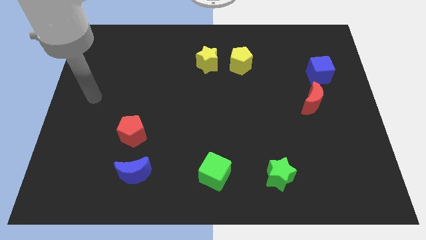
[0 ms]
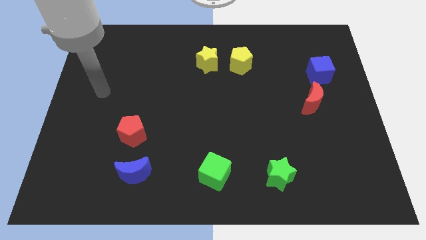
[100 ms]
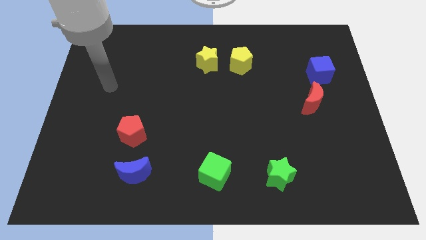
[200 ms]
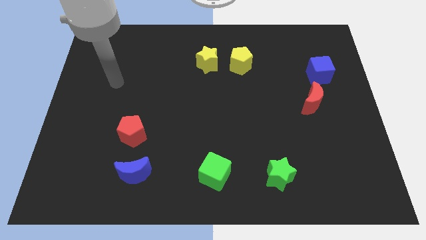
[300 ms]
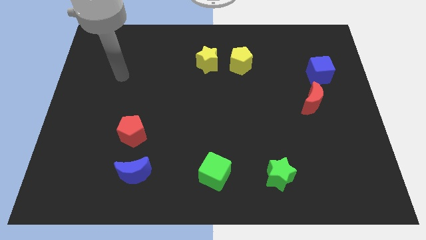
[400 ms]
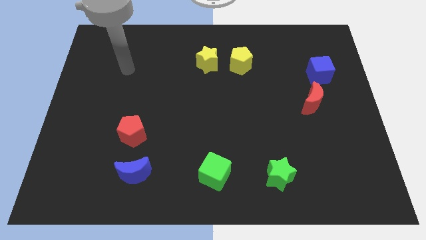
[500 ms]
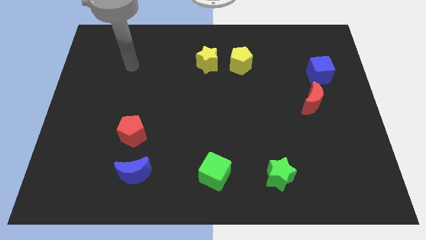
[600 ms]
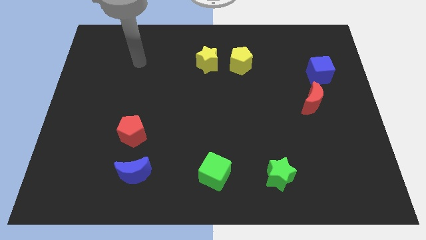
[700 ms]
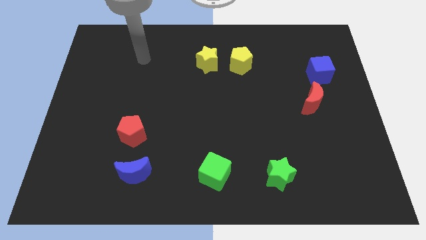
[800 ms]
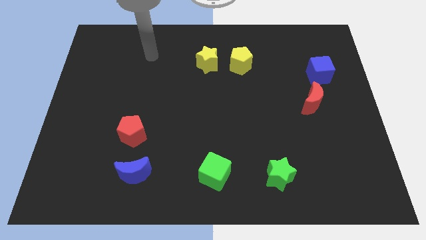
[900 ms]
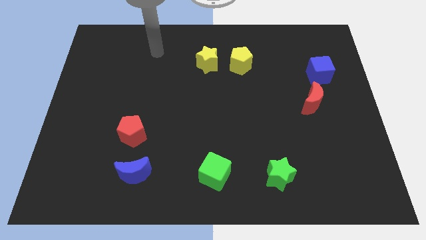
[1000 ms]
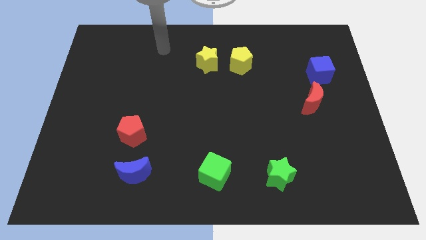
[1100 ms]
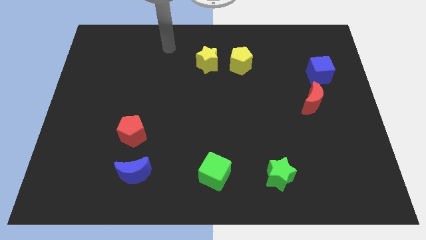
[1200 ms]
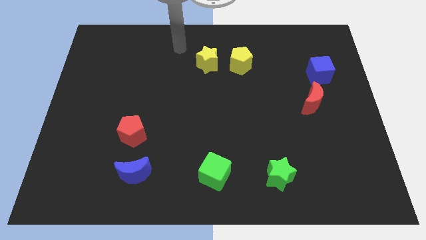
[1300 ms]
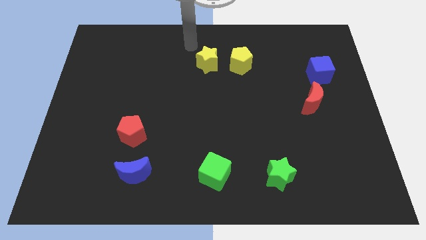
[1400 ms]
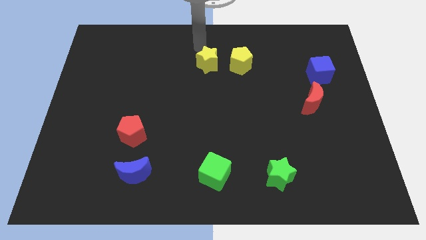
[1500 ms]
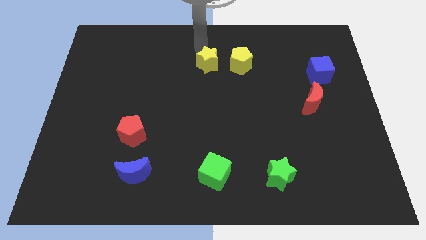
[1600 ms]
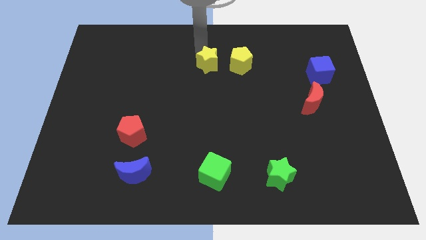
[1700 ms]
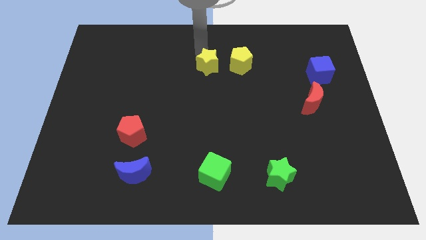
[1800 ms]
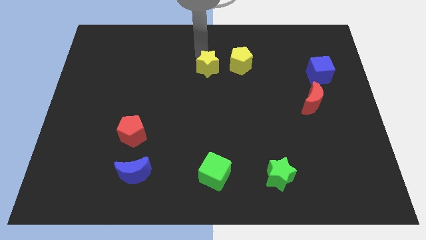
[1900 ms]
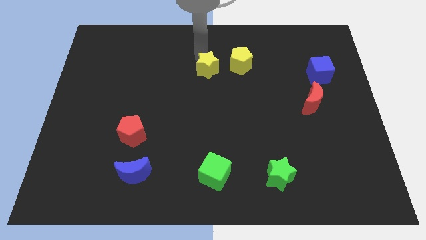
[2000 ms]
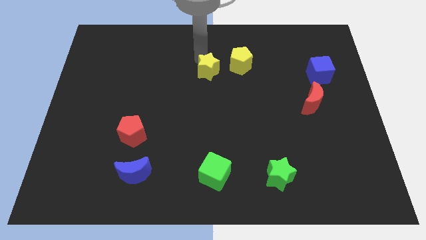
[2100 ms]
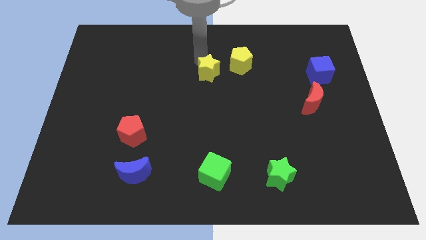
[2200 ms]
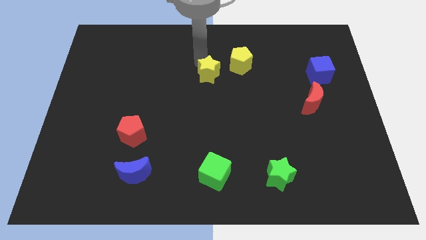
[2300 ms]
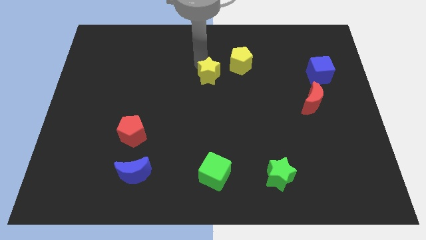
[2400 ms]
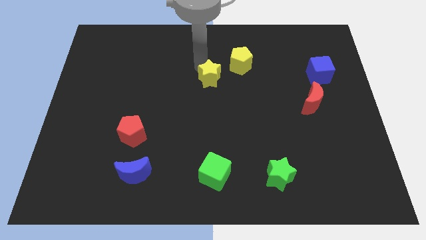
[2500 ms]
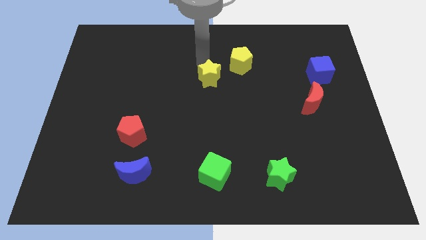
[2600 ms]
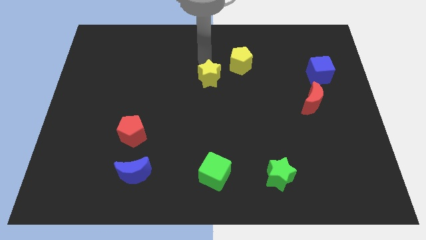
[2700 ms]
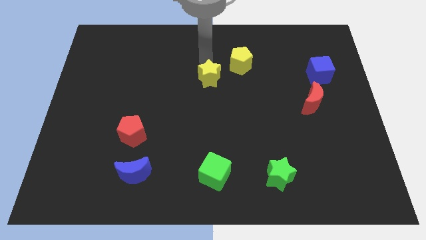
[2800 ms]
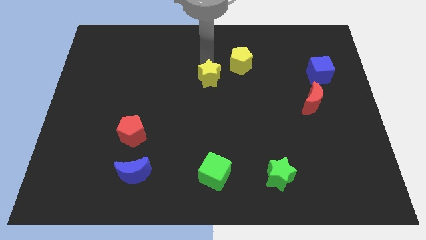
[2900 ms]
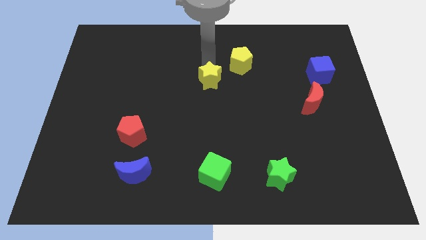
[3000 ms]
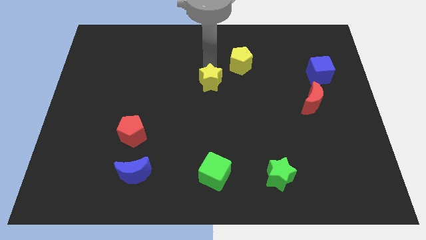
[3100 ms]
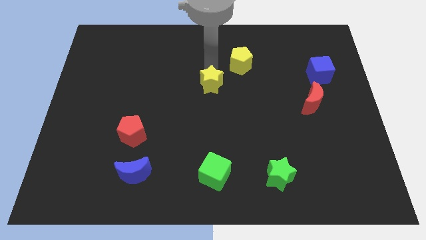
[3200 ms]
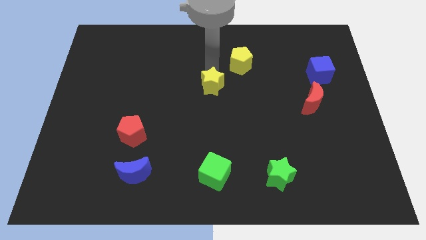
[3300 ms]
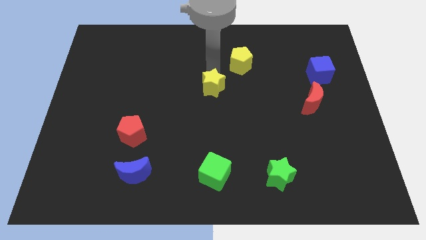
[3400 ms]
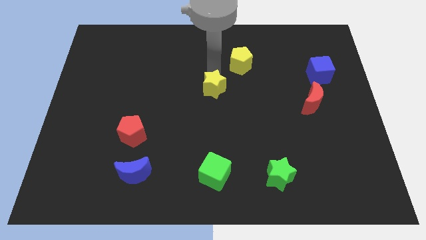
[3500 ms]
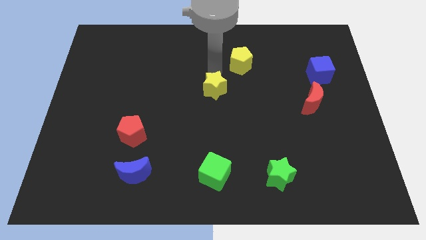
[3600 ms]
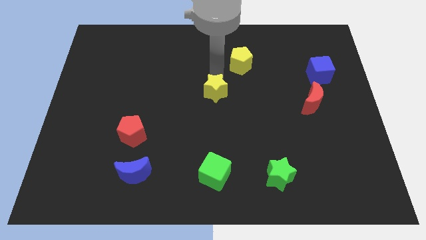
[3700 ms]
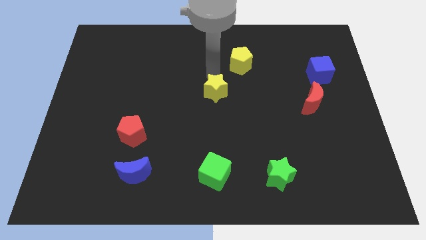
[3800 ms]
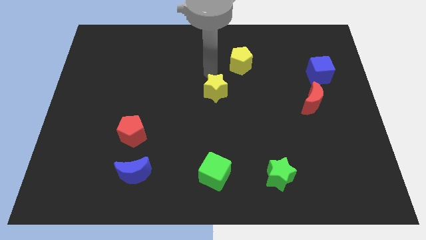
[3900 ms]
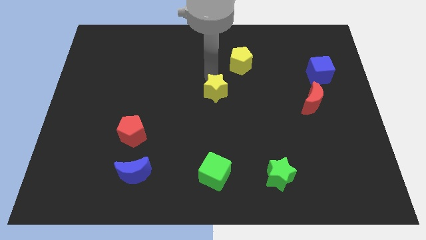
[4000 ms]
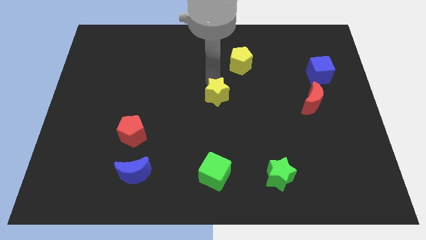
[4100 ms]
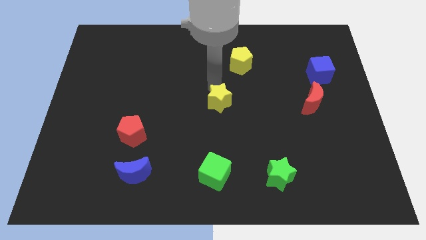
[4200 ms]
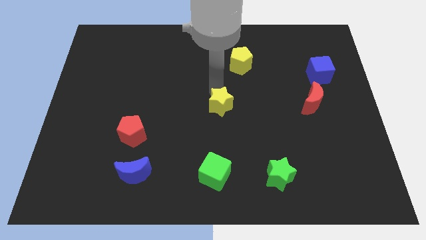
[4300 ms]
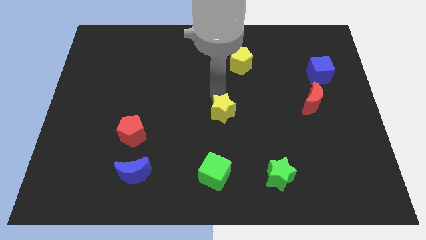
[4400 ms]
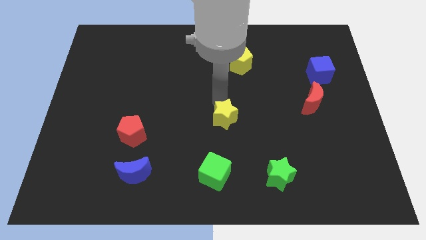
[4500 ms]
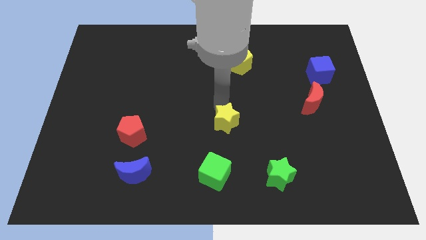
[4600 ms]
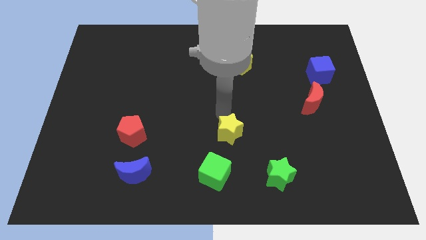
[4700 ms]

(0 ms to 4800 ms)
push the yellow star to the top right side of the green cube

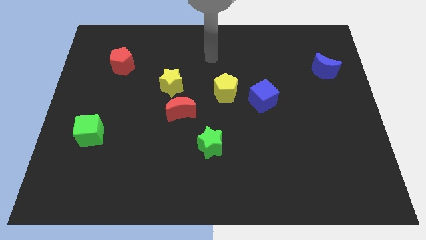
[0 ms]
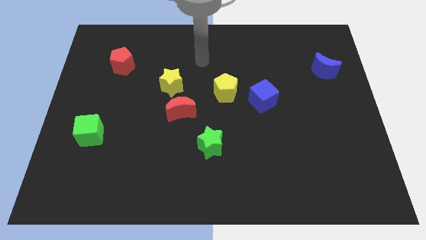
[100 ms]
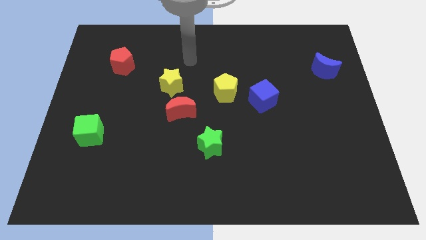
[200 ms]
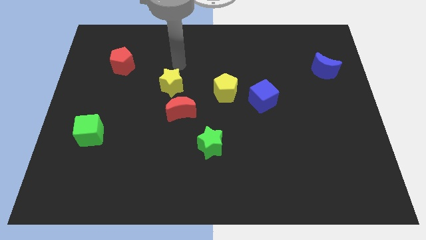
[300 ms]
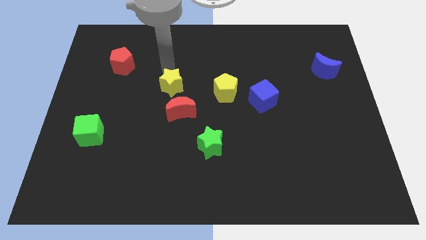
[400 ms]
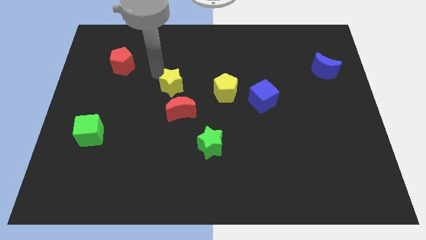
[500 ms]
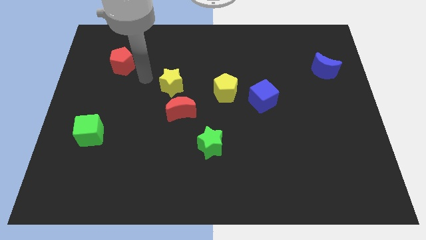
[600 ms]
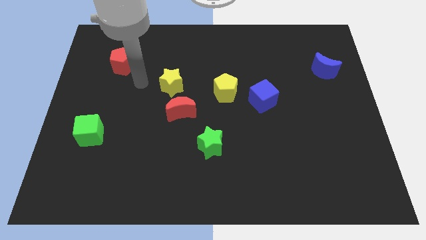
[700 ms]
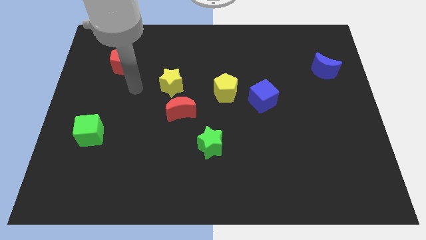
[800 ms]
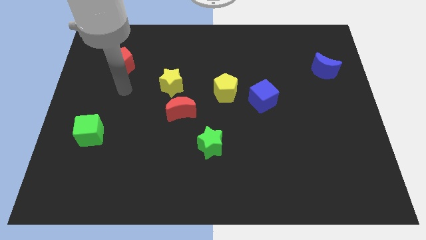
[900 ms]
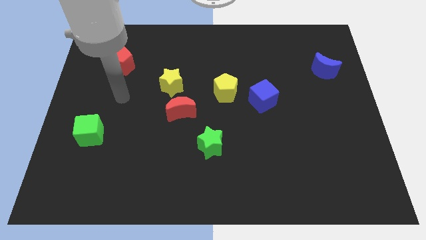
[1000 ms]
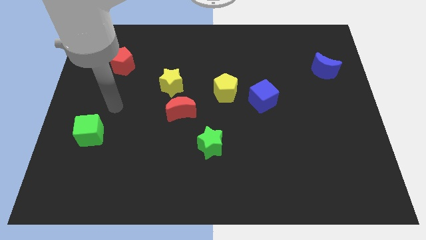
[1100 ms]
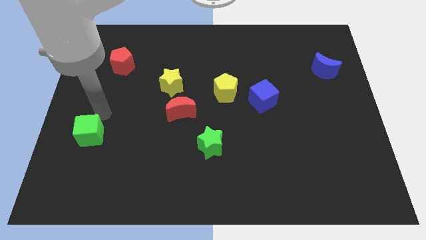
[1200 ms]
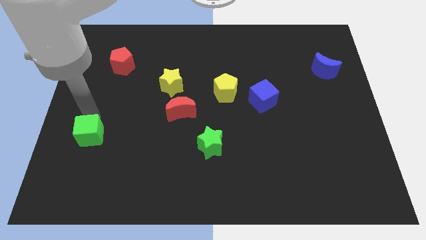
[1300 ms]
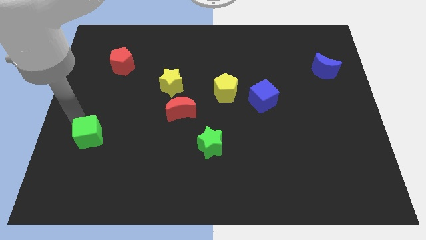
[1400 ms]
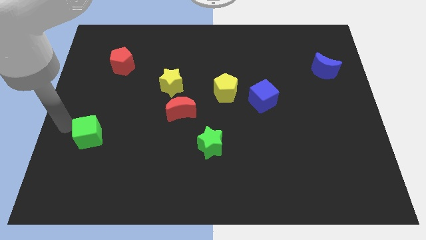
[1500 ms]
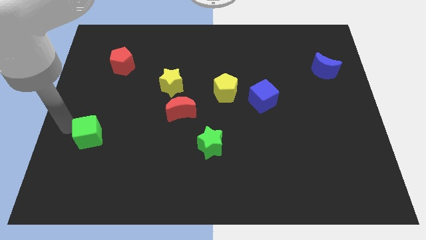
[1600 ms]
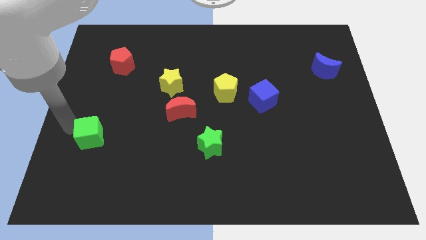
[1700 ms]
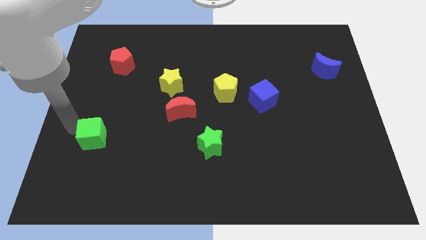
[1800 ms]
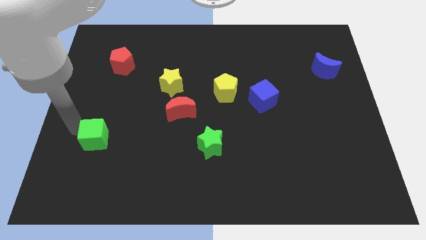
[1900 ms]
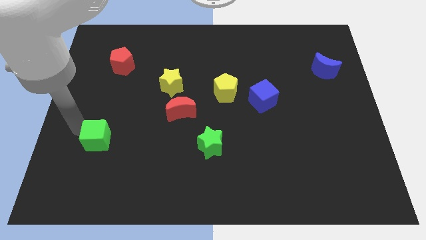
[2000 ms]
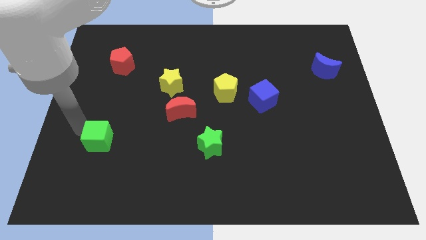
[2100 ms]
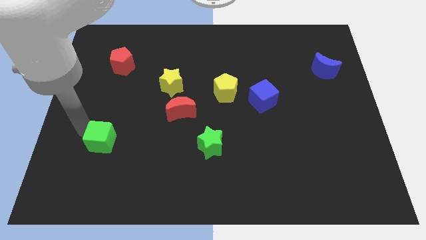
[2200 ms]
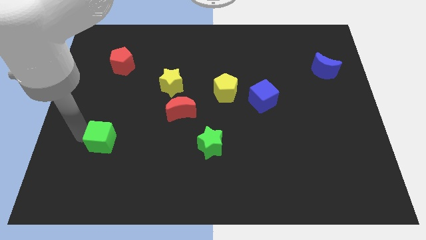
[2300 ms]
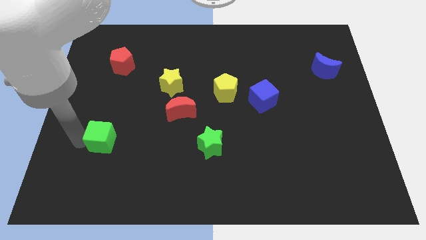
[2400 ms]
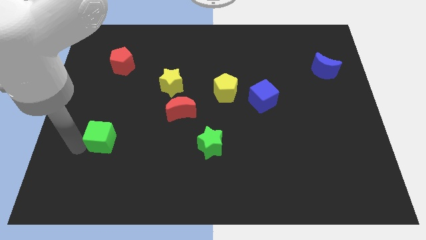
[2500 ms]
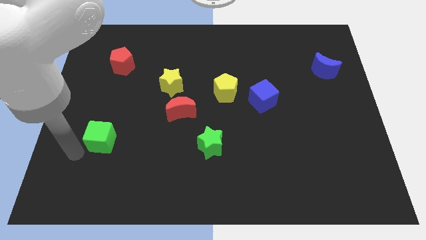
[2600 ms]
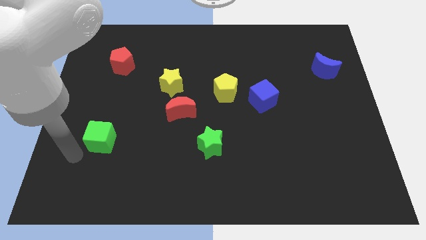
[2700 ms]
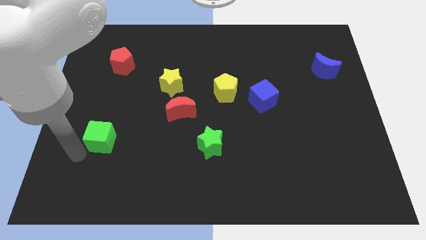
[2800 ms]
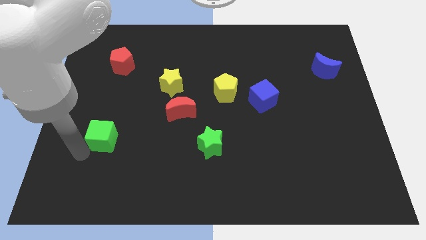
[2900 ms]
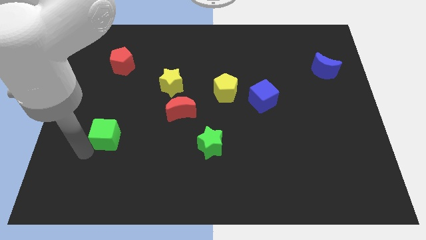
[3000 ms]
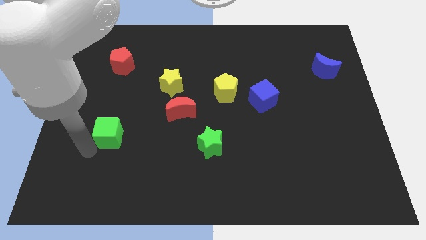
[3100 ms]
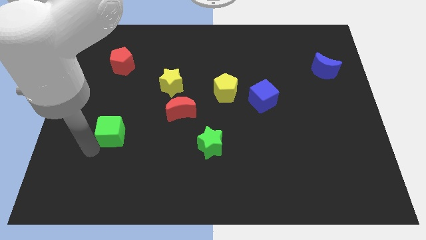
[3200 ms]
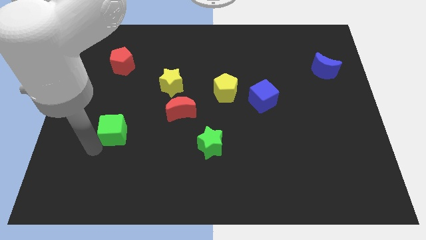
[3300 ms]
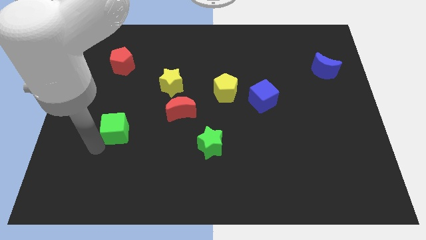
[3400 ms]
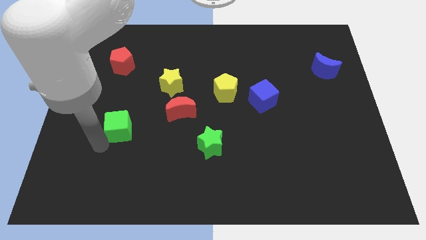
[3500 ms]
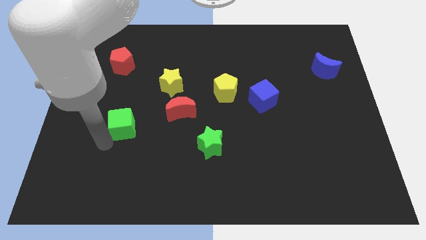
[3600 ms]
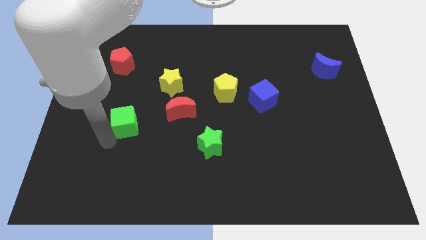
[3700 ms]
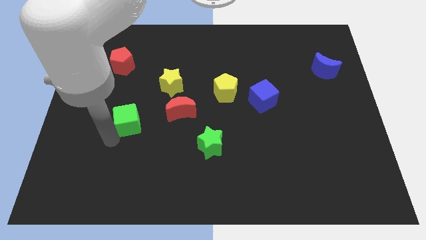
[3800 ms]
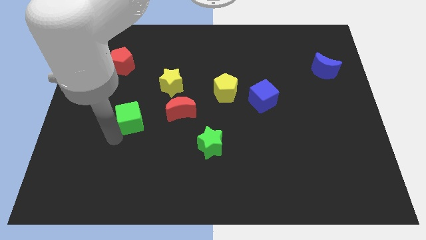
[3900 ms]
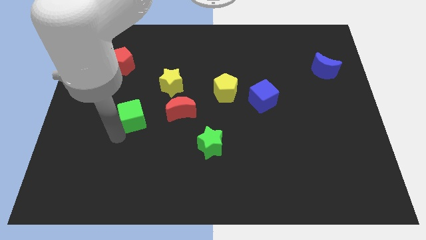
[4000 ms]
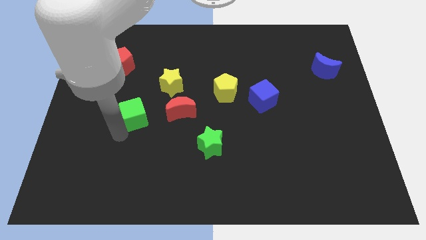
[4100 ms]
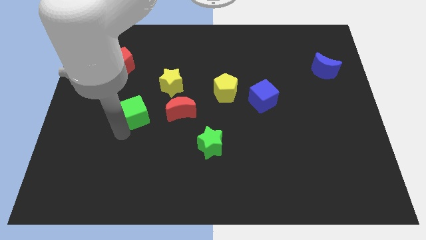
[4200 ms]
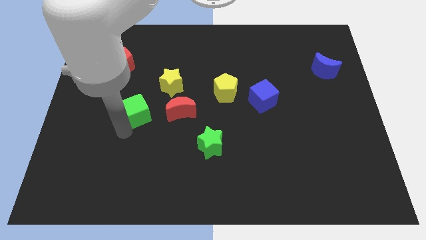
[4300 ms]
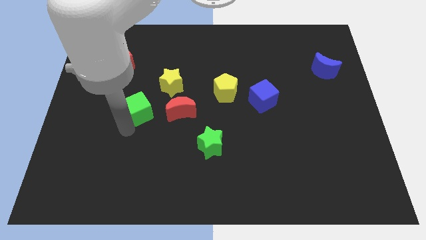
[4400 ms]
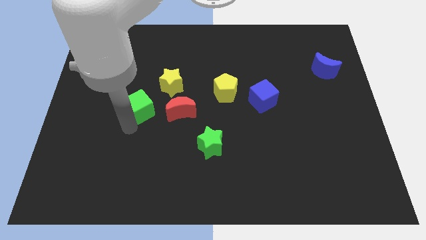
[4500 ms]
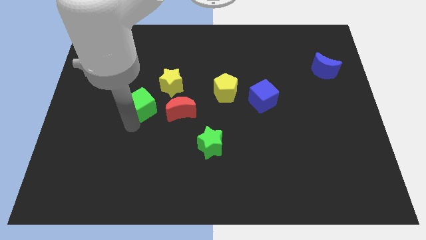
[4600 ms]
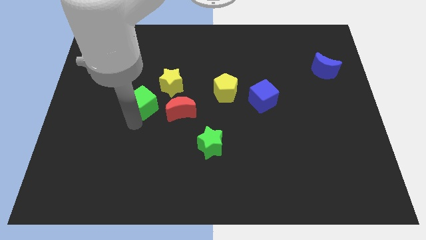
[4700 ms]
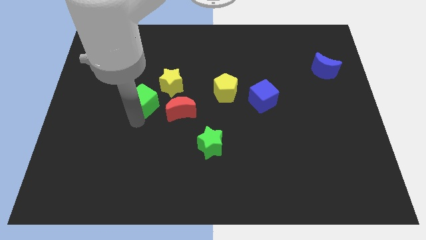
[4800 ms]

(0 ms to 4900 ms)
push the green cube to the top left of the red moon
